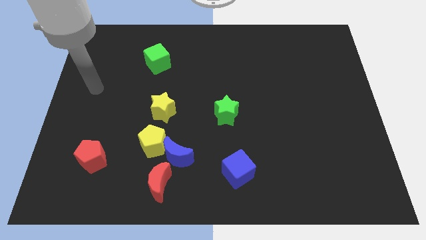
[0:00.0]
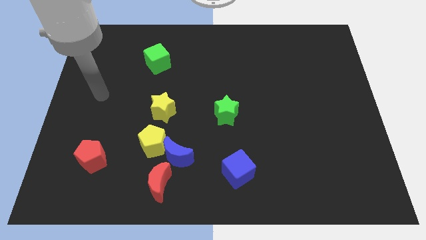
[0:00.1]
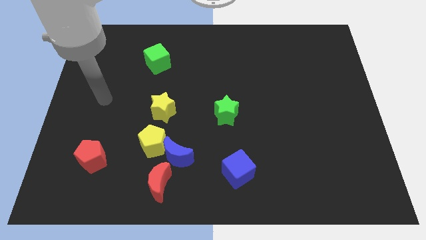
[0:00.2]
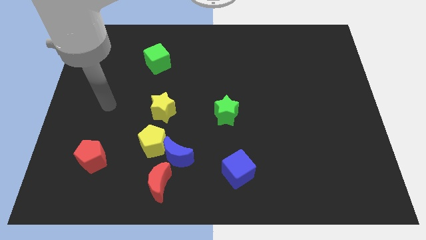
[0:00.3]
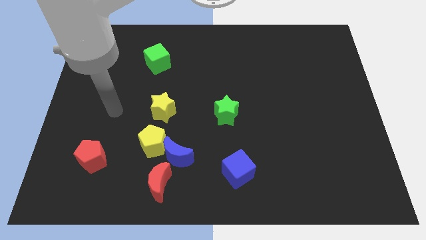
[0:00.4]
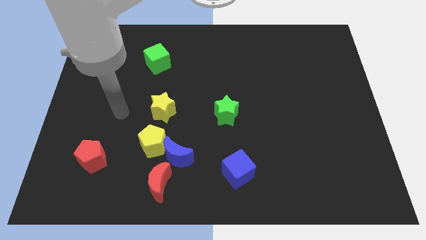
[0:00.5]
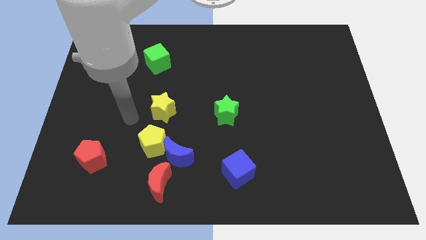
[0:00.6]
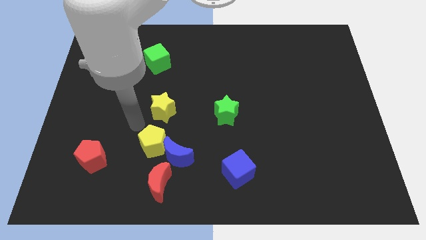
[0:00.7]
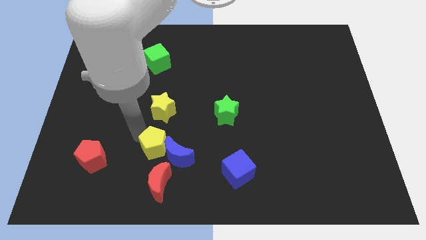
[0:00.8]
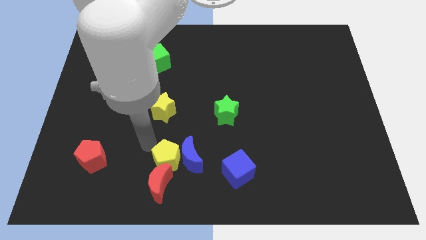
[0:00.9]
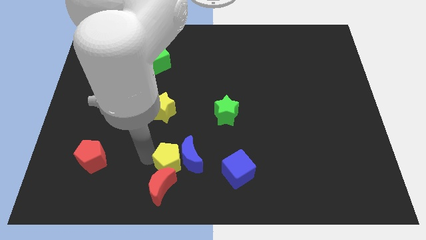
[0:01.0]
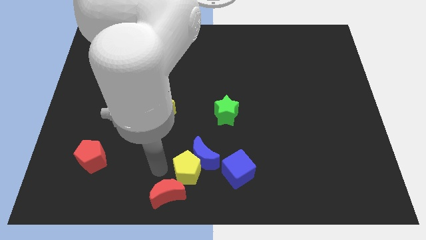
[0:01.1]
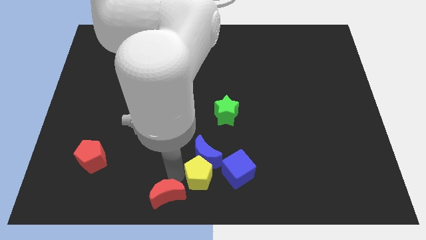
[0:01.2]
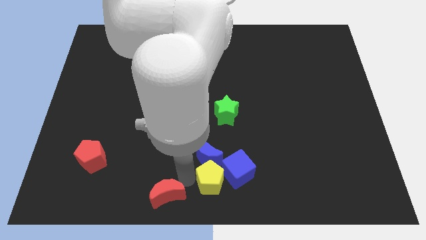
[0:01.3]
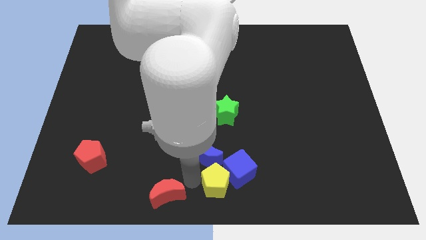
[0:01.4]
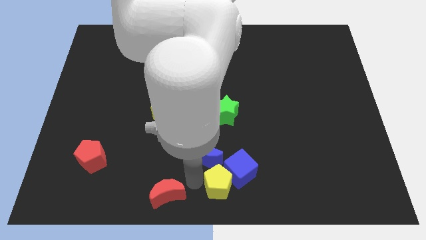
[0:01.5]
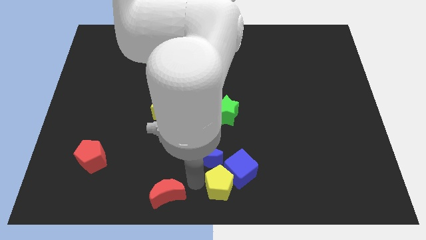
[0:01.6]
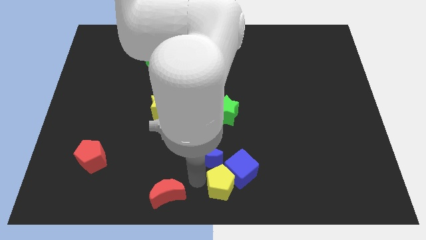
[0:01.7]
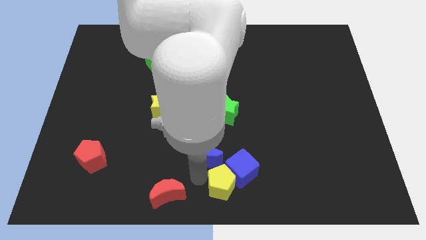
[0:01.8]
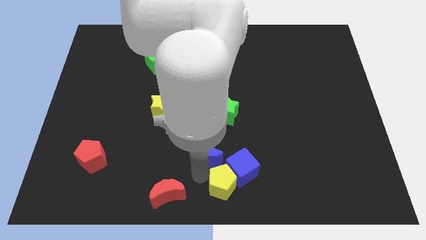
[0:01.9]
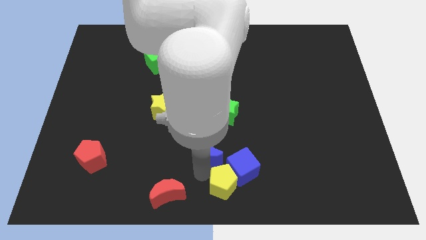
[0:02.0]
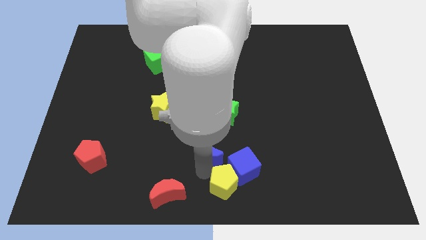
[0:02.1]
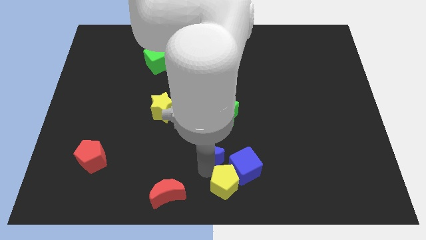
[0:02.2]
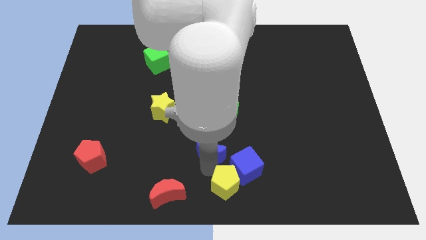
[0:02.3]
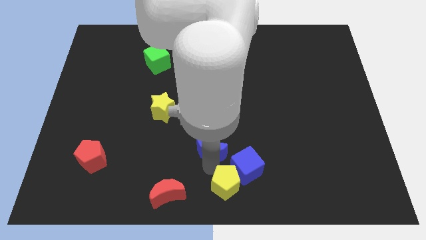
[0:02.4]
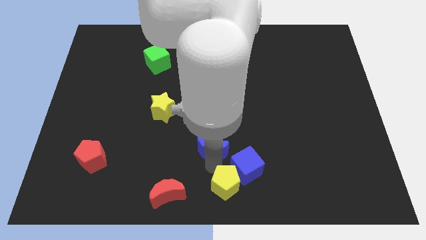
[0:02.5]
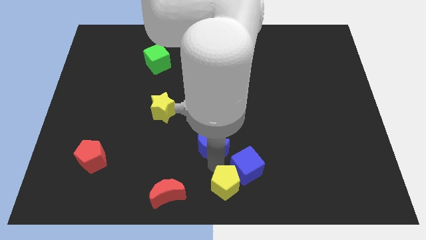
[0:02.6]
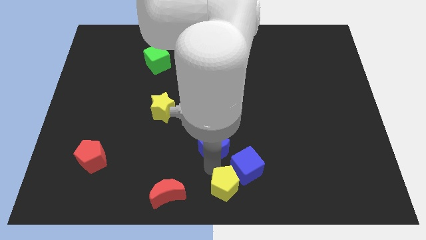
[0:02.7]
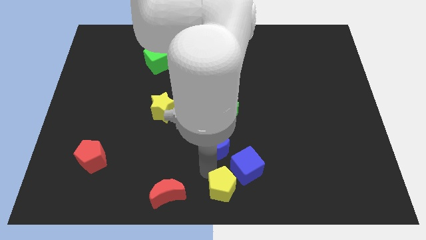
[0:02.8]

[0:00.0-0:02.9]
move the blue moon away from the yellow pentagon and red moon

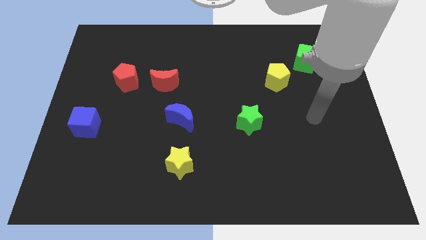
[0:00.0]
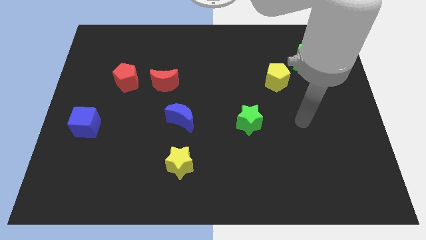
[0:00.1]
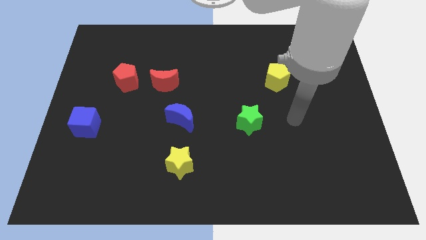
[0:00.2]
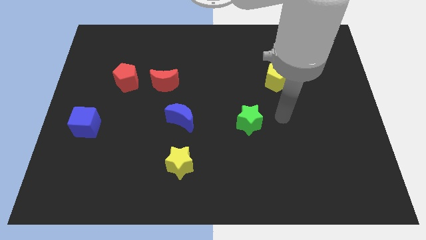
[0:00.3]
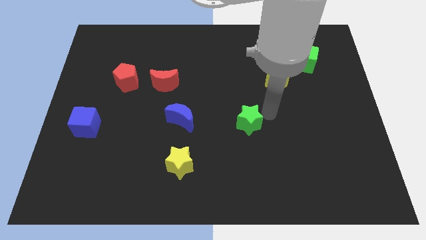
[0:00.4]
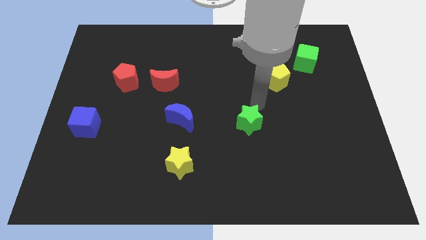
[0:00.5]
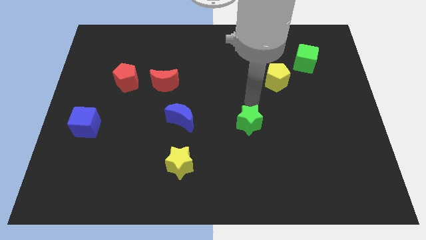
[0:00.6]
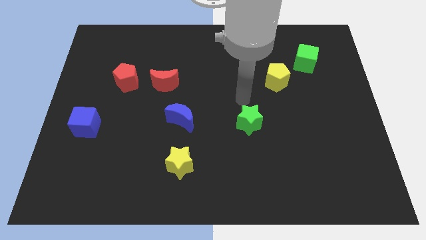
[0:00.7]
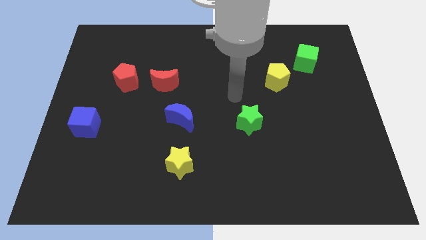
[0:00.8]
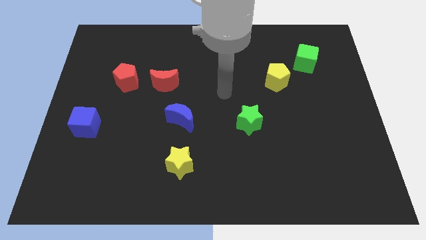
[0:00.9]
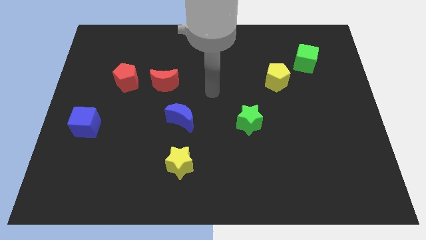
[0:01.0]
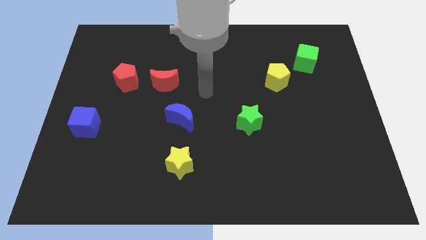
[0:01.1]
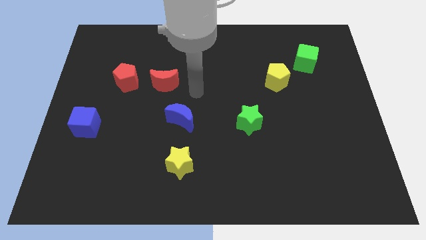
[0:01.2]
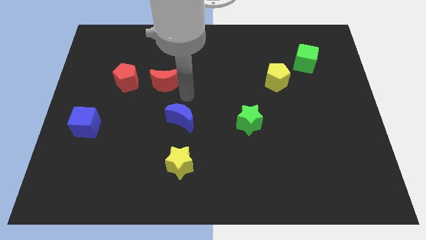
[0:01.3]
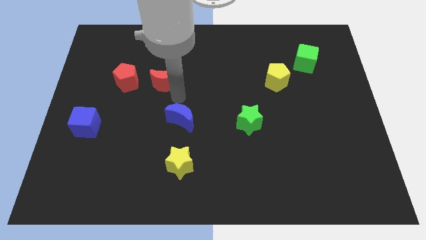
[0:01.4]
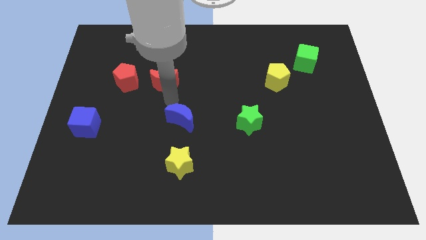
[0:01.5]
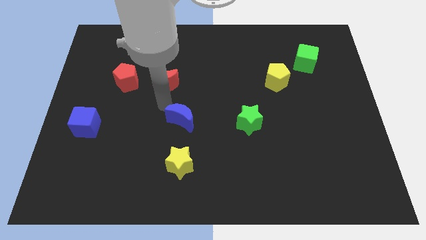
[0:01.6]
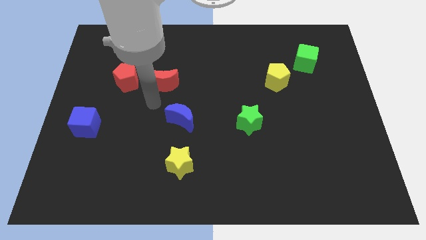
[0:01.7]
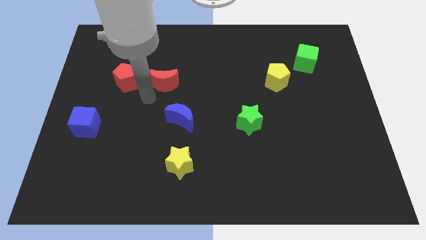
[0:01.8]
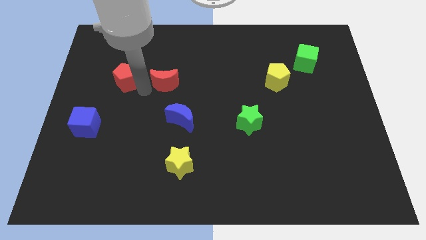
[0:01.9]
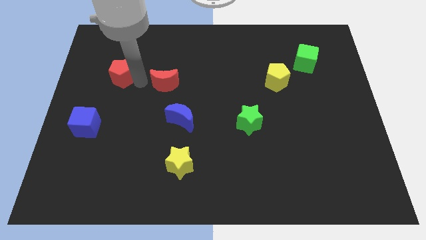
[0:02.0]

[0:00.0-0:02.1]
move the red moon away from the red pentagon

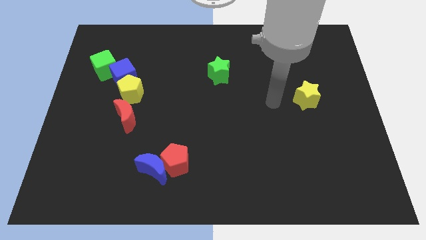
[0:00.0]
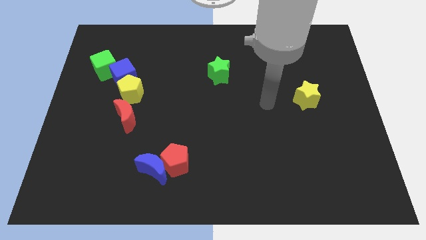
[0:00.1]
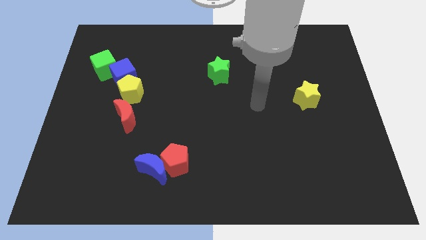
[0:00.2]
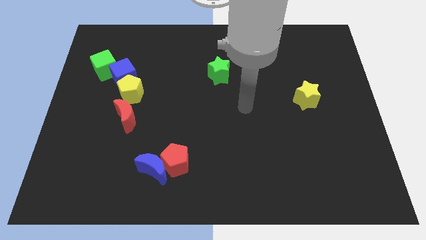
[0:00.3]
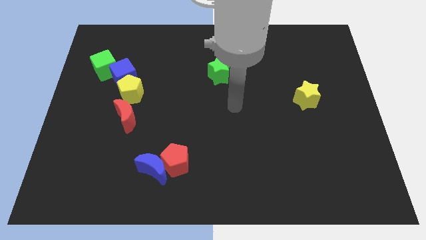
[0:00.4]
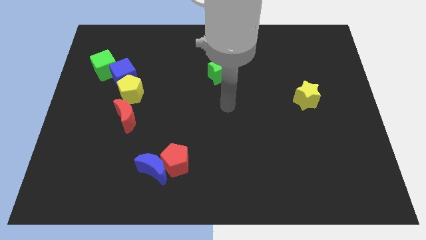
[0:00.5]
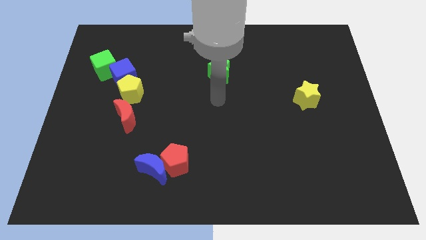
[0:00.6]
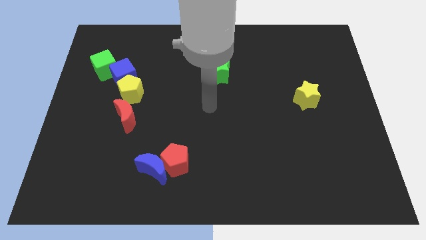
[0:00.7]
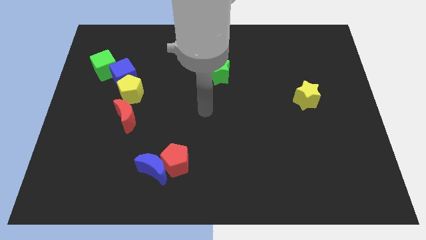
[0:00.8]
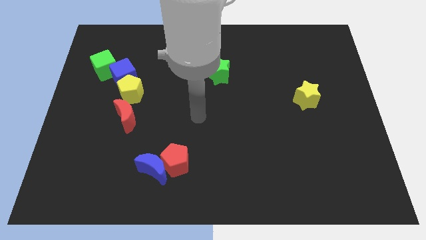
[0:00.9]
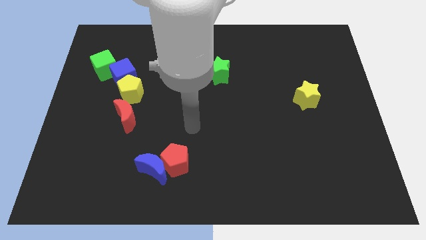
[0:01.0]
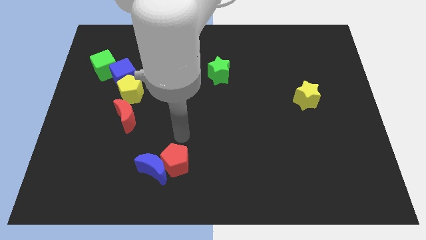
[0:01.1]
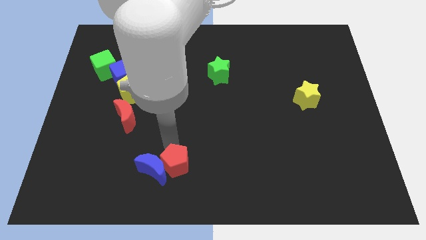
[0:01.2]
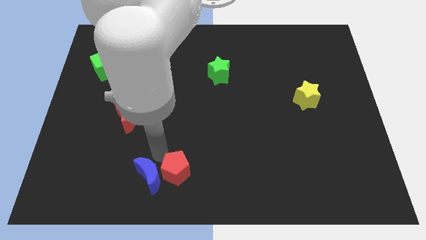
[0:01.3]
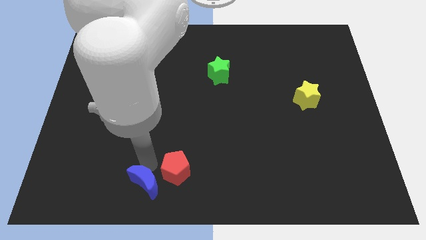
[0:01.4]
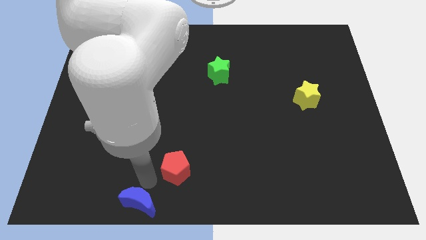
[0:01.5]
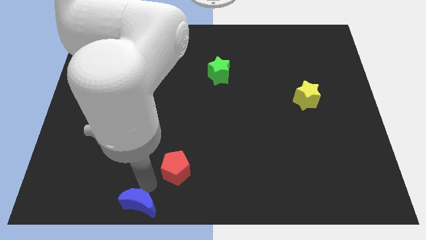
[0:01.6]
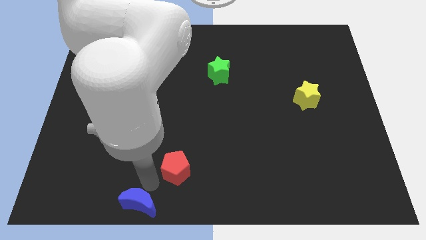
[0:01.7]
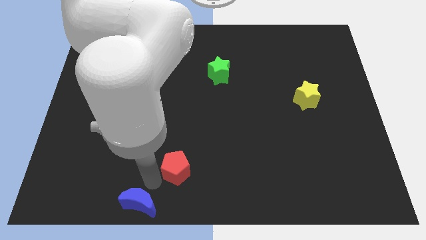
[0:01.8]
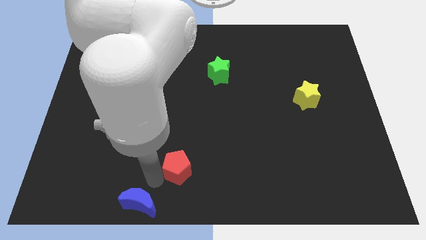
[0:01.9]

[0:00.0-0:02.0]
pull the red pentagon apart from the blue moon

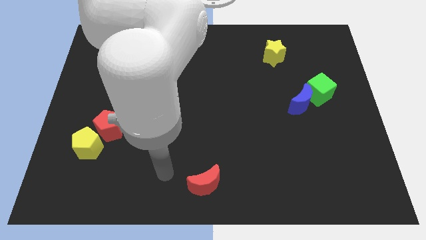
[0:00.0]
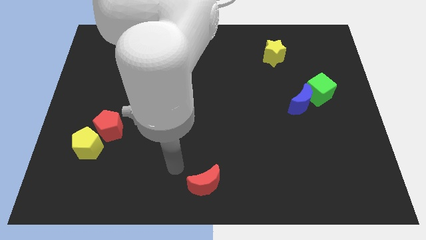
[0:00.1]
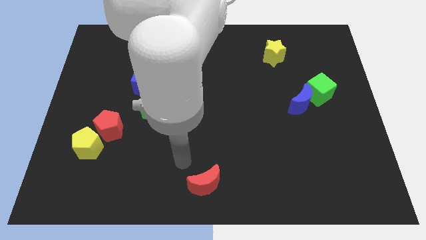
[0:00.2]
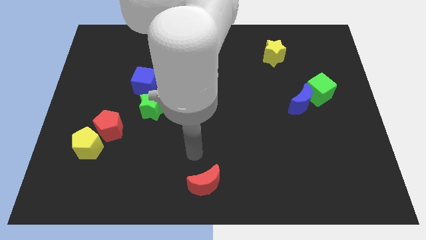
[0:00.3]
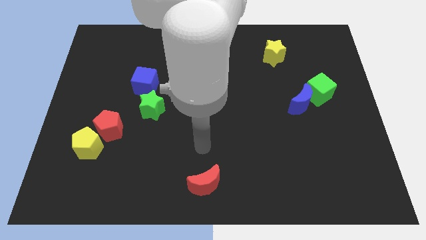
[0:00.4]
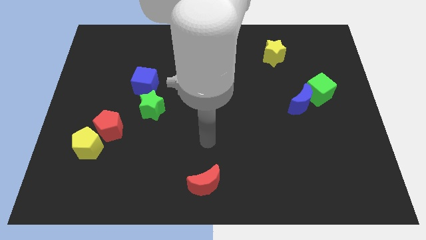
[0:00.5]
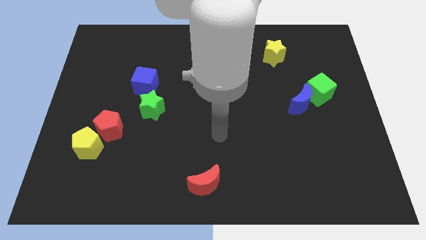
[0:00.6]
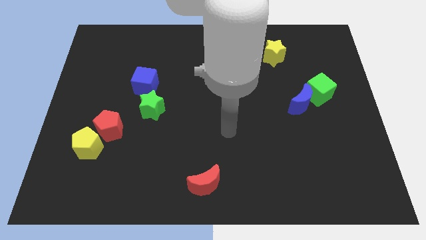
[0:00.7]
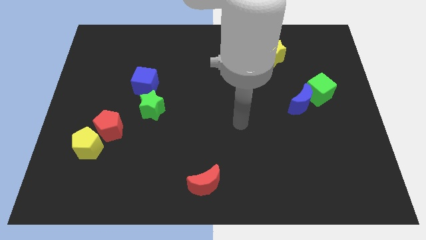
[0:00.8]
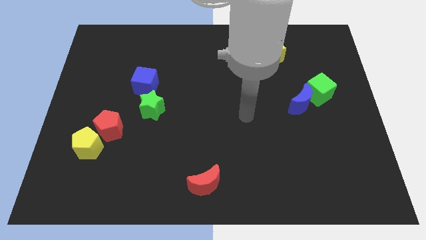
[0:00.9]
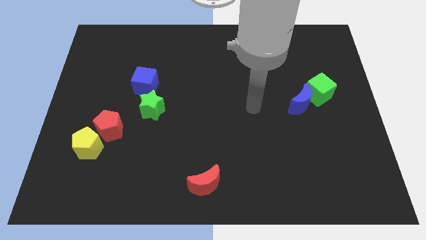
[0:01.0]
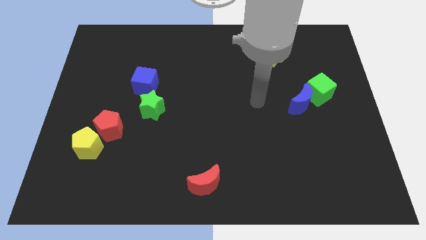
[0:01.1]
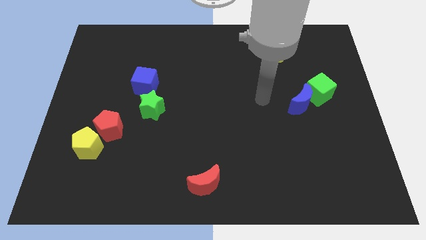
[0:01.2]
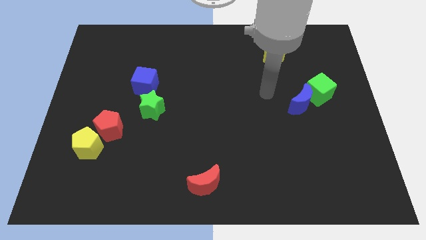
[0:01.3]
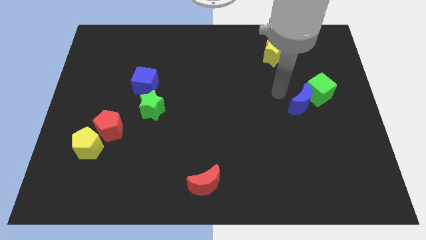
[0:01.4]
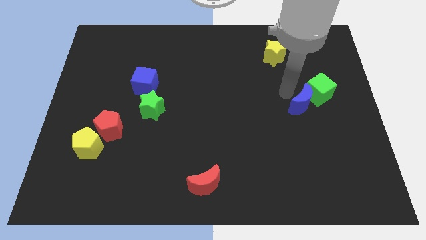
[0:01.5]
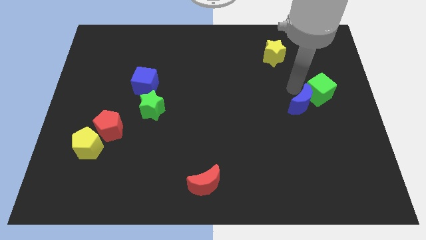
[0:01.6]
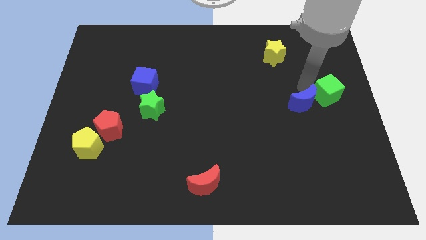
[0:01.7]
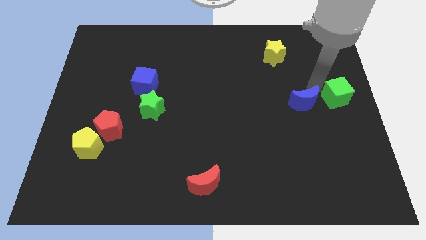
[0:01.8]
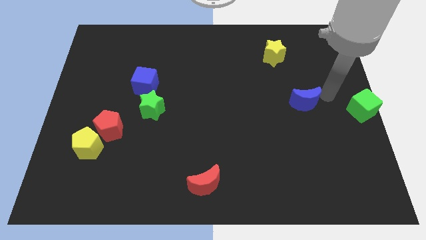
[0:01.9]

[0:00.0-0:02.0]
pull the blue moon apart from the green cube

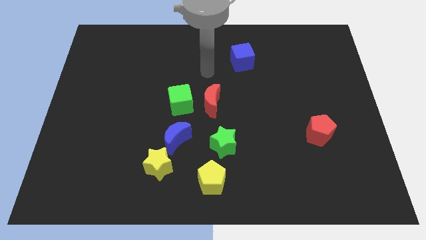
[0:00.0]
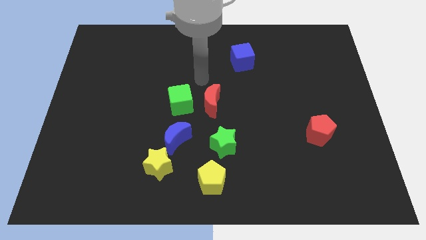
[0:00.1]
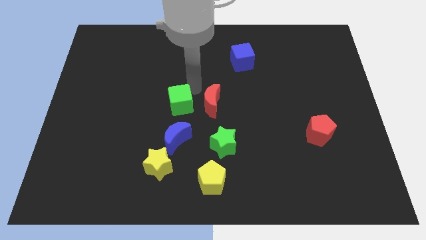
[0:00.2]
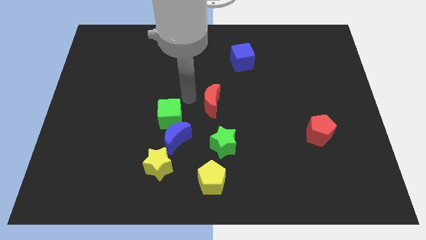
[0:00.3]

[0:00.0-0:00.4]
move the red moon away from the green cube
